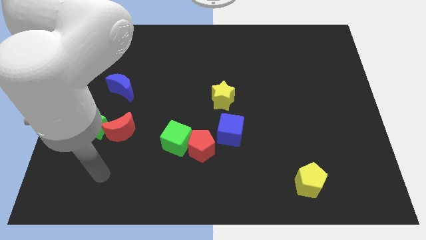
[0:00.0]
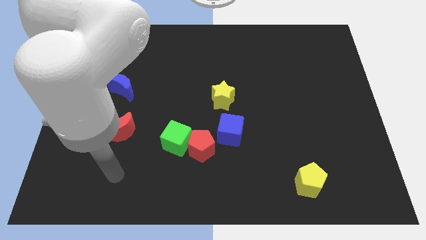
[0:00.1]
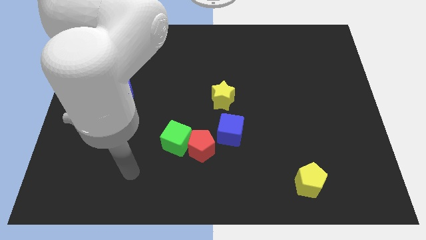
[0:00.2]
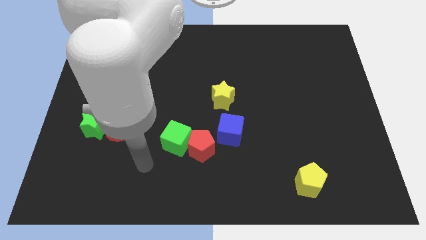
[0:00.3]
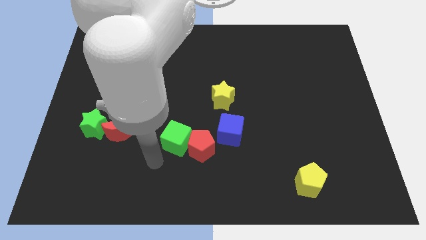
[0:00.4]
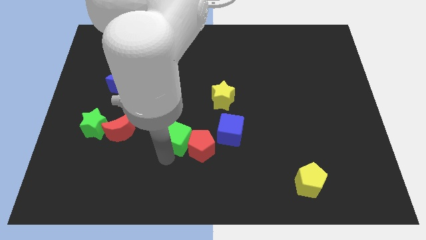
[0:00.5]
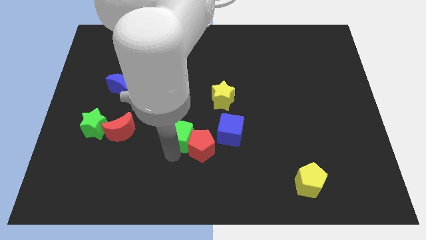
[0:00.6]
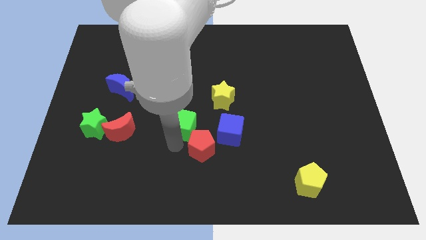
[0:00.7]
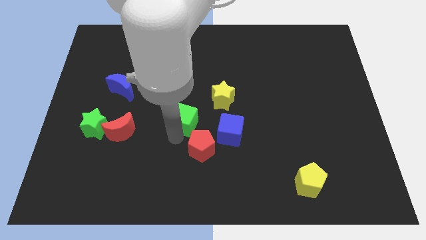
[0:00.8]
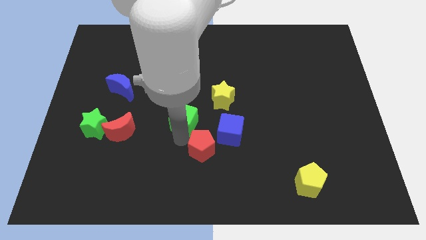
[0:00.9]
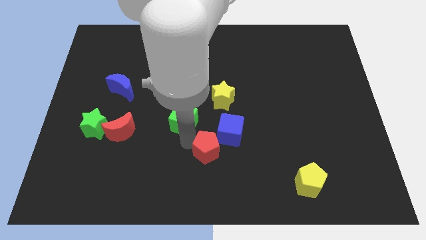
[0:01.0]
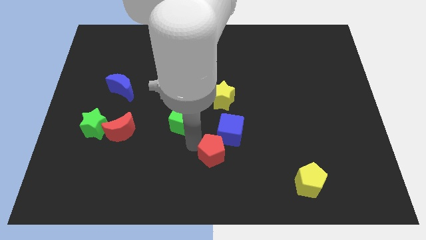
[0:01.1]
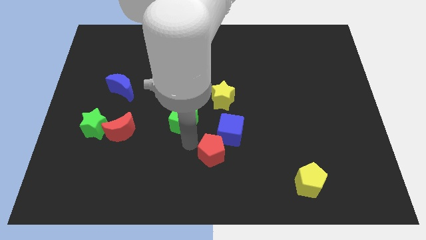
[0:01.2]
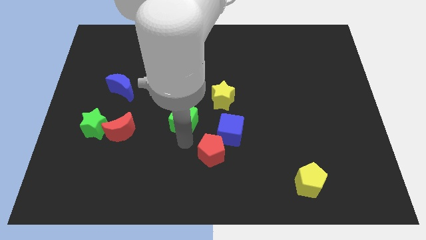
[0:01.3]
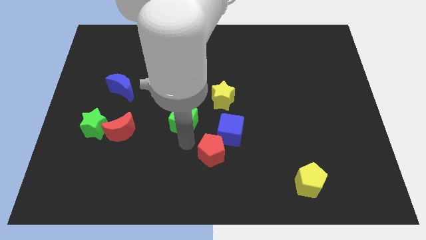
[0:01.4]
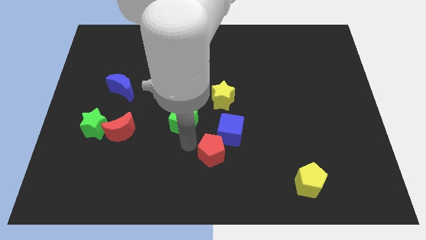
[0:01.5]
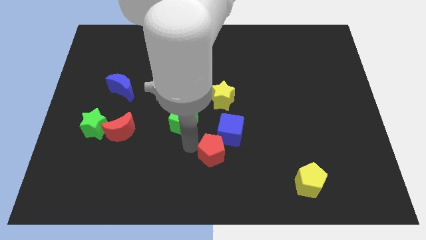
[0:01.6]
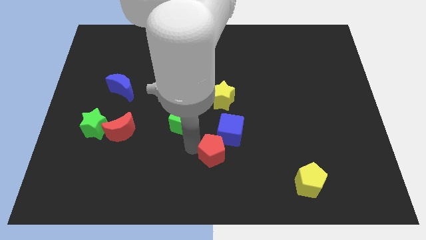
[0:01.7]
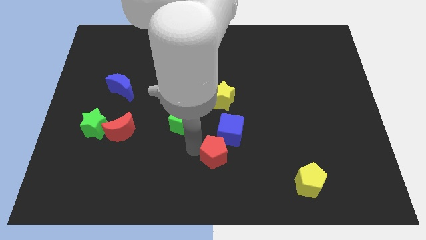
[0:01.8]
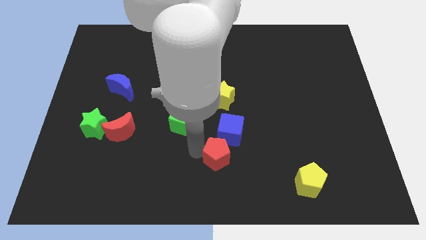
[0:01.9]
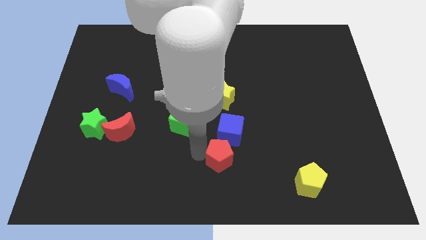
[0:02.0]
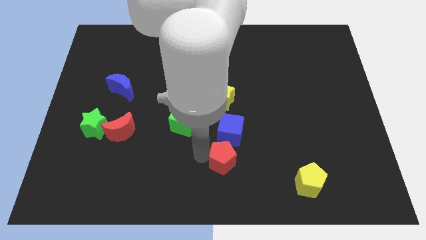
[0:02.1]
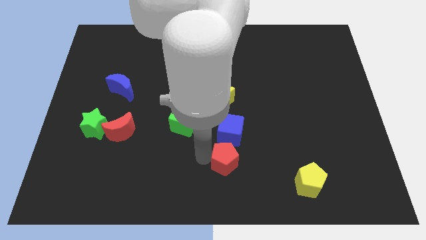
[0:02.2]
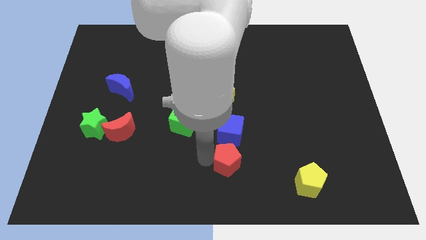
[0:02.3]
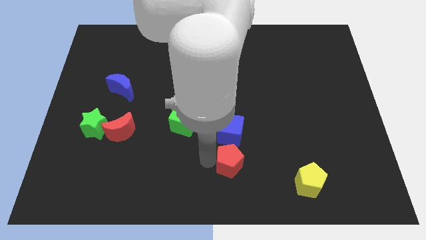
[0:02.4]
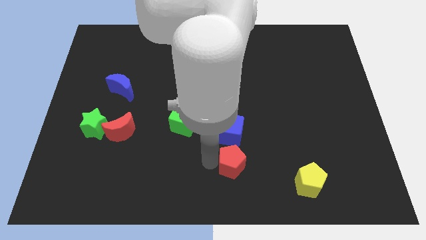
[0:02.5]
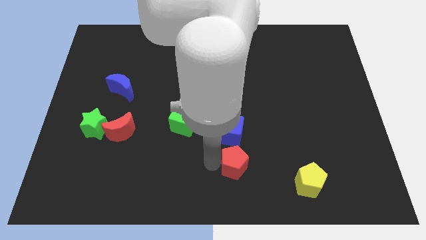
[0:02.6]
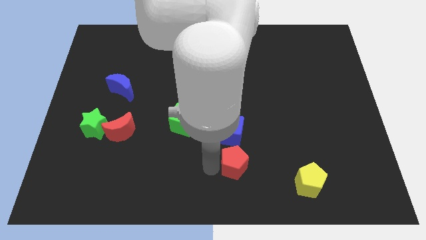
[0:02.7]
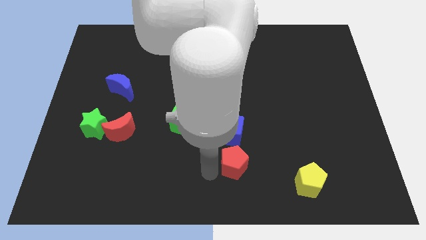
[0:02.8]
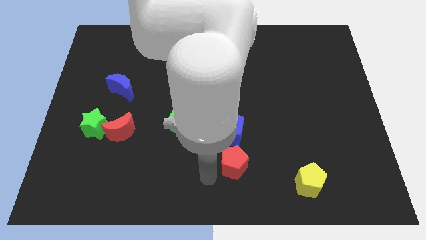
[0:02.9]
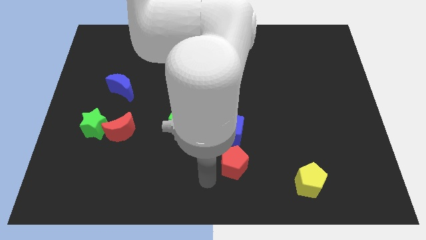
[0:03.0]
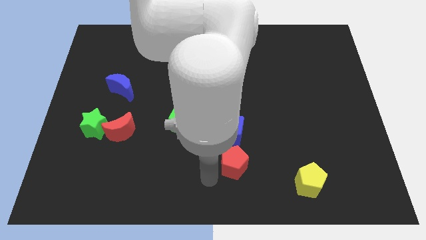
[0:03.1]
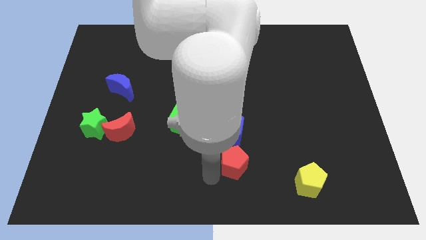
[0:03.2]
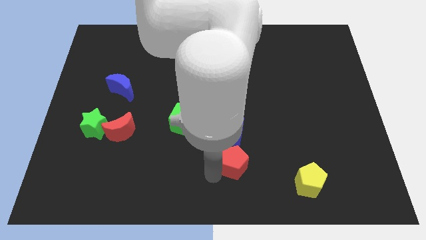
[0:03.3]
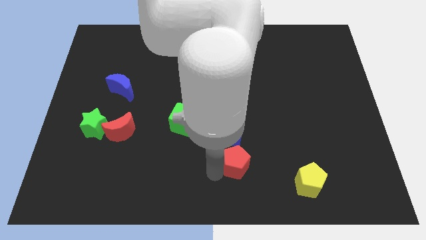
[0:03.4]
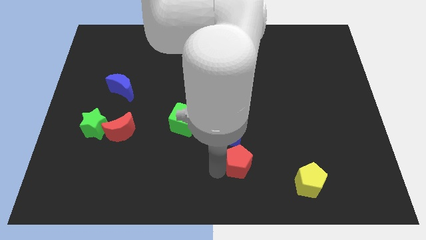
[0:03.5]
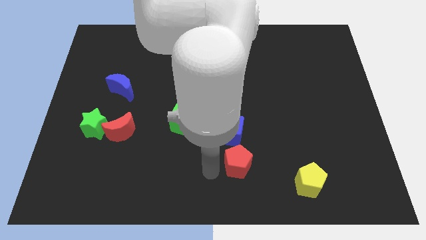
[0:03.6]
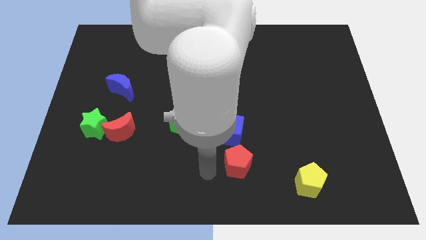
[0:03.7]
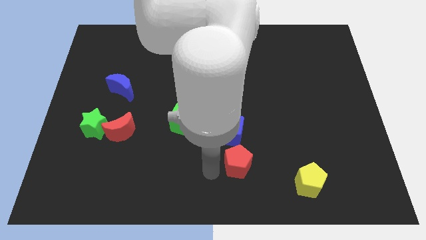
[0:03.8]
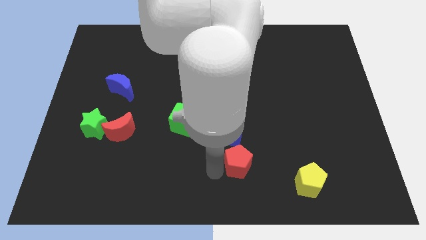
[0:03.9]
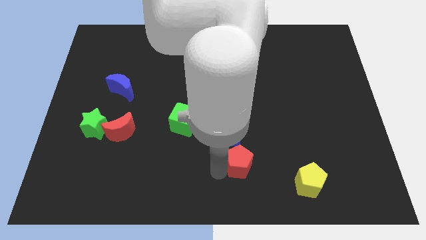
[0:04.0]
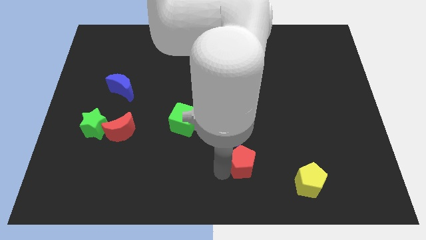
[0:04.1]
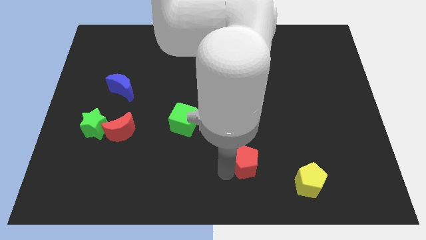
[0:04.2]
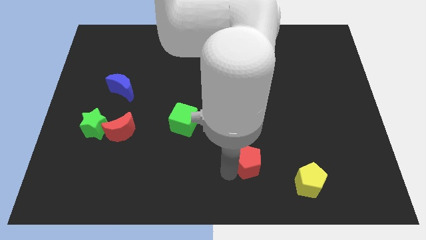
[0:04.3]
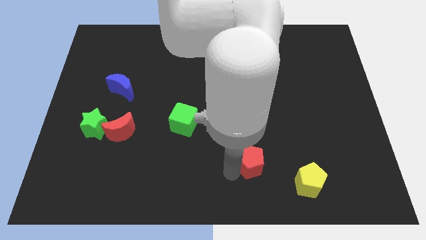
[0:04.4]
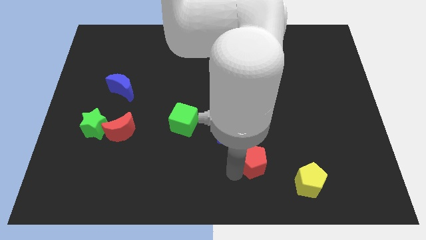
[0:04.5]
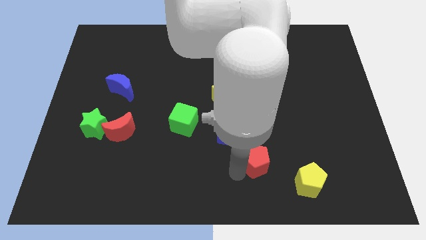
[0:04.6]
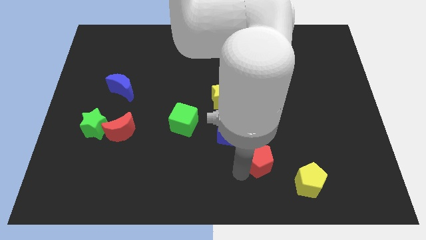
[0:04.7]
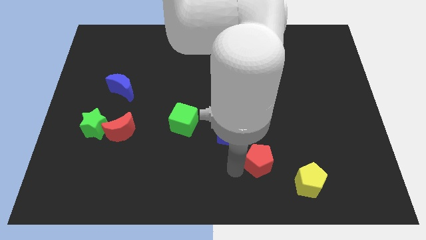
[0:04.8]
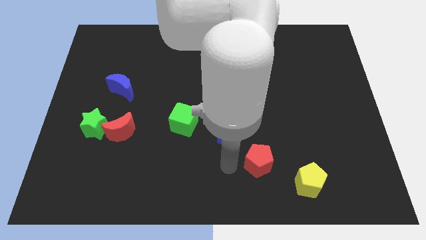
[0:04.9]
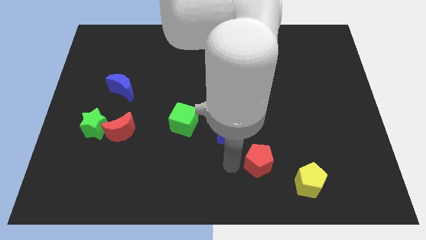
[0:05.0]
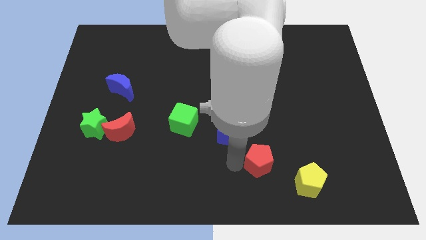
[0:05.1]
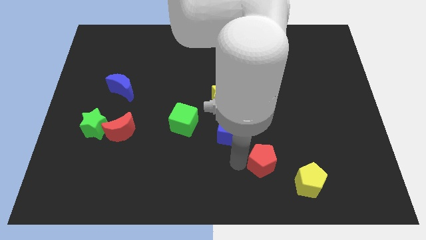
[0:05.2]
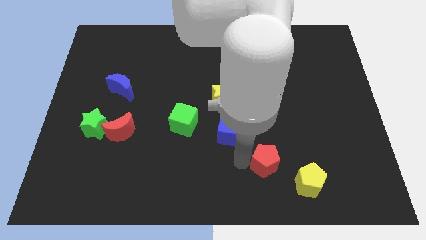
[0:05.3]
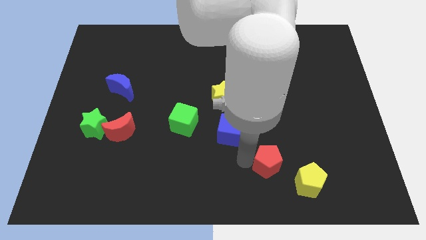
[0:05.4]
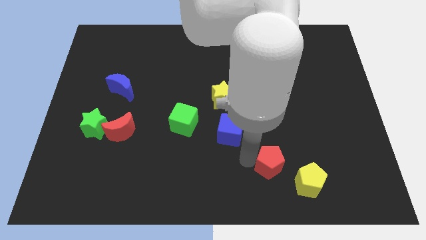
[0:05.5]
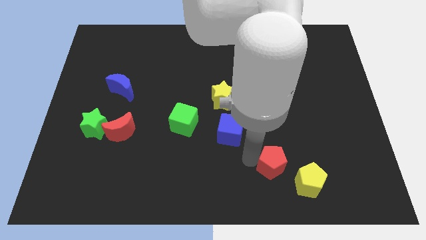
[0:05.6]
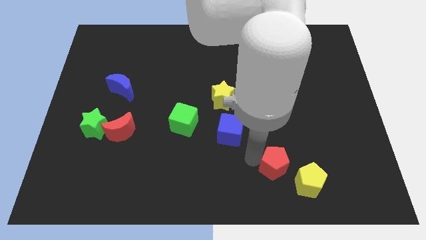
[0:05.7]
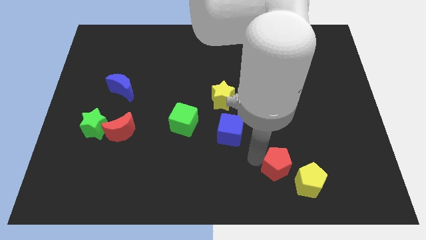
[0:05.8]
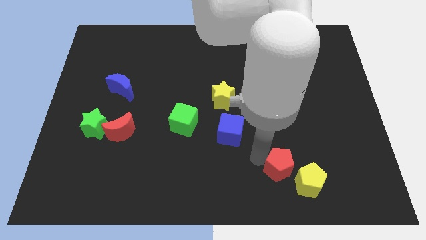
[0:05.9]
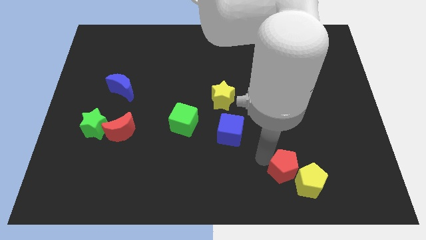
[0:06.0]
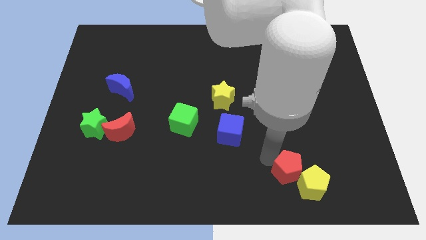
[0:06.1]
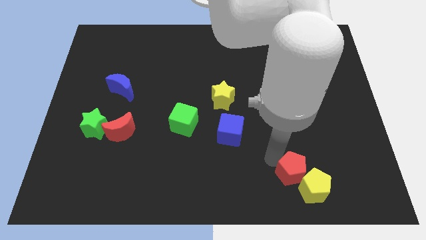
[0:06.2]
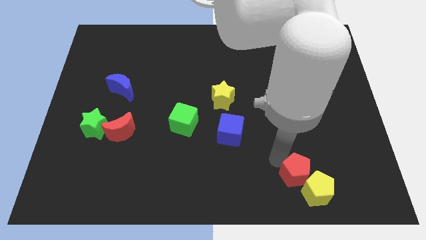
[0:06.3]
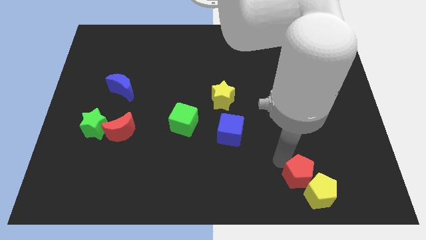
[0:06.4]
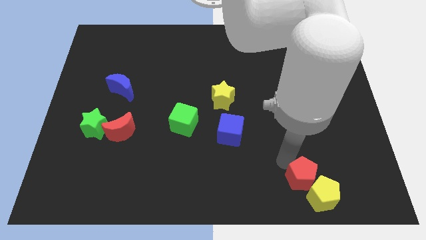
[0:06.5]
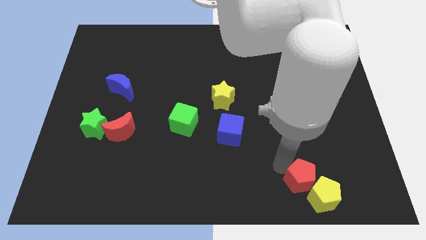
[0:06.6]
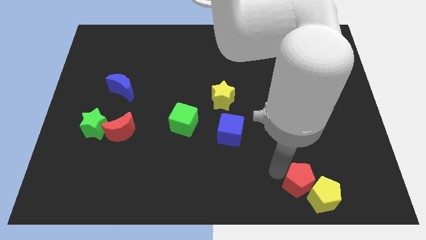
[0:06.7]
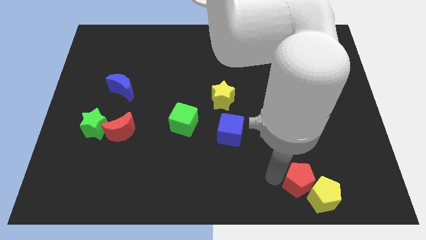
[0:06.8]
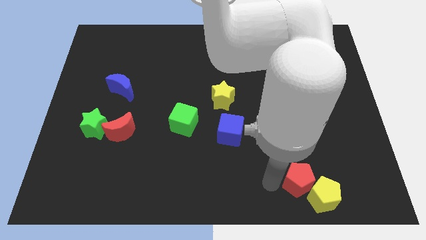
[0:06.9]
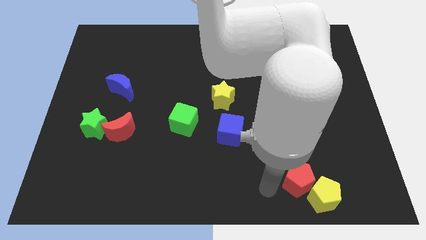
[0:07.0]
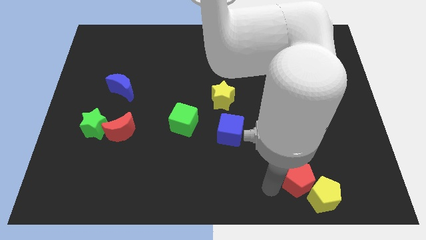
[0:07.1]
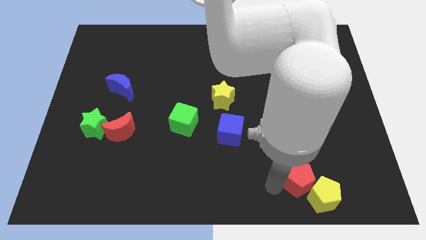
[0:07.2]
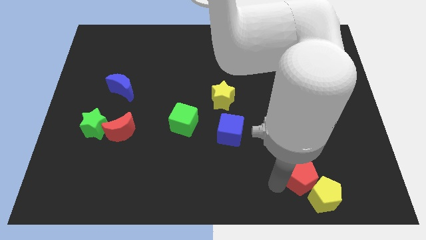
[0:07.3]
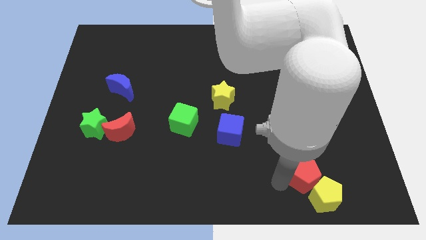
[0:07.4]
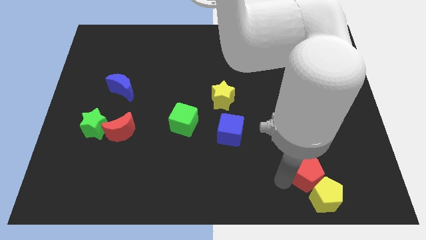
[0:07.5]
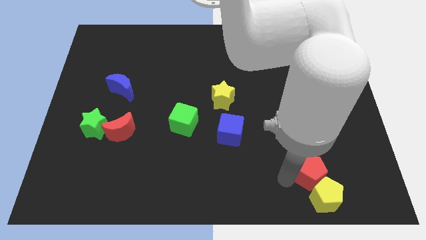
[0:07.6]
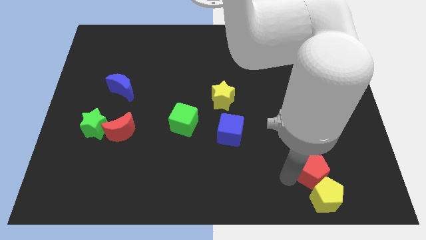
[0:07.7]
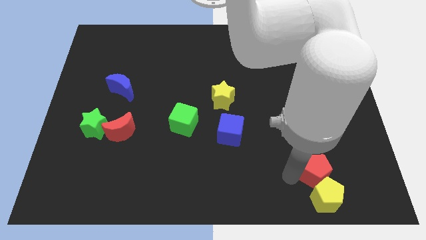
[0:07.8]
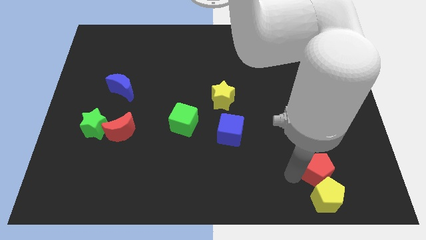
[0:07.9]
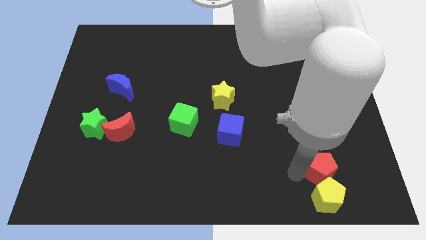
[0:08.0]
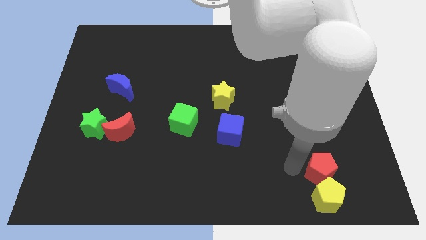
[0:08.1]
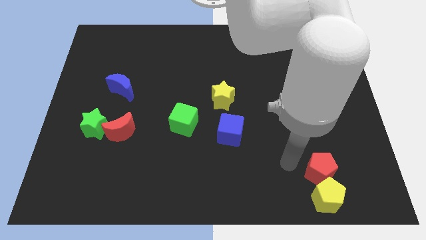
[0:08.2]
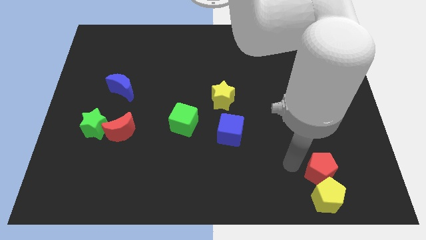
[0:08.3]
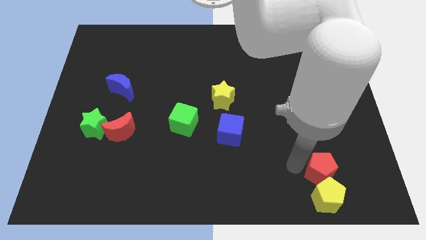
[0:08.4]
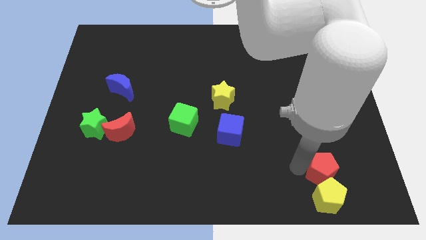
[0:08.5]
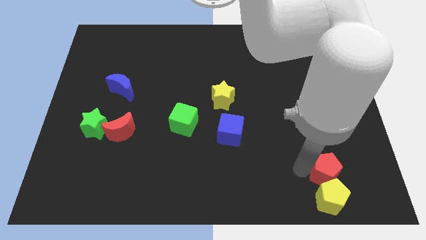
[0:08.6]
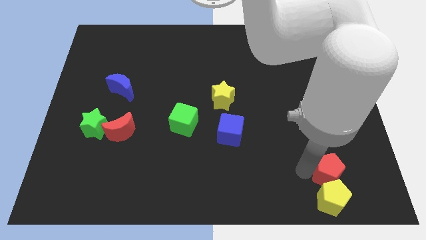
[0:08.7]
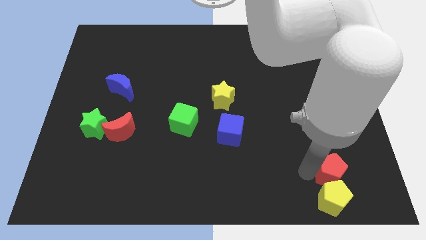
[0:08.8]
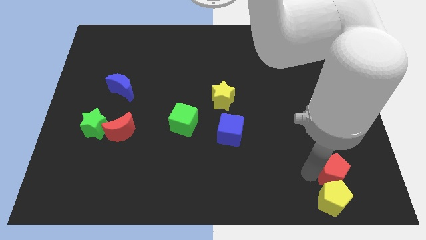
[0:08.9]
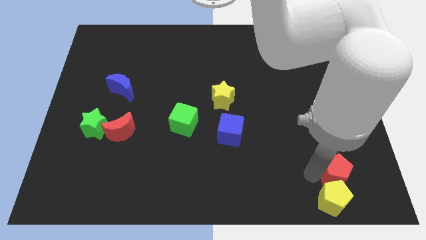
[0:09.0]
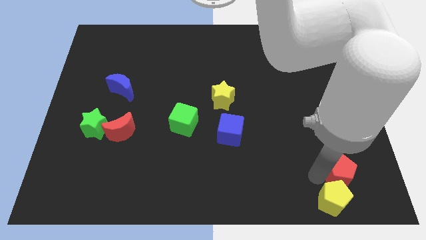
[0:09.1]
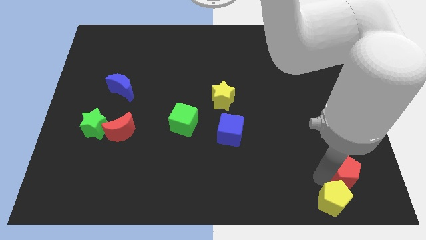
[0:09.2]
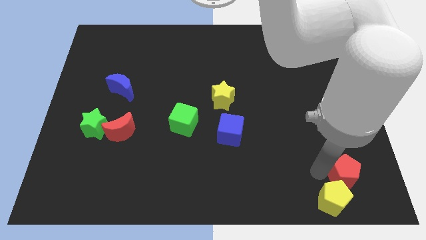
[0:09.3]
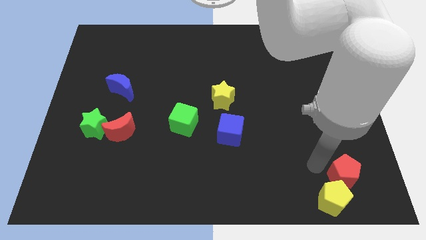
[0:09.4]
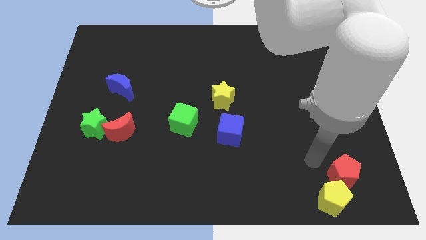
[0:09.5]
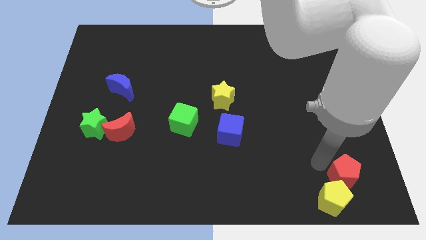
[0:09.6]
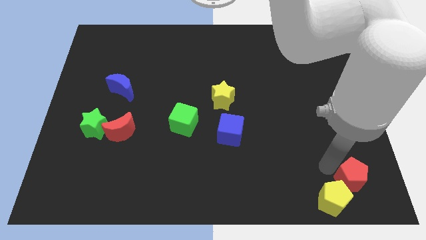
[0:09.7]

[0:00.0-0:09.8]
slide the red pentagon to the lower right corner
